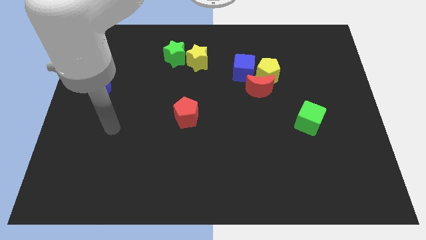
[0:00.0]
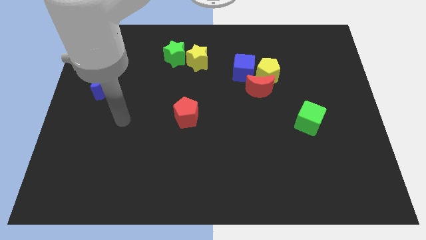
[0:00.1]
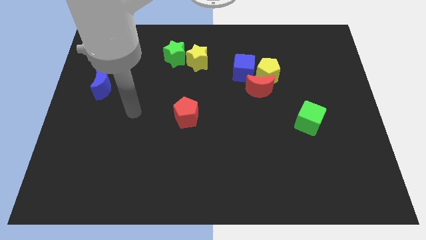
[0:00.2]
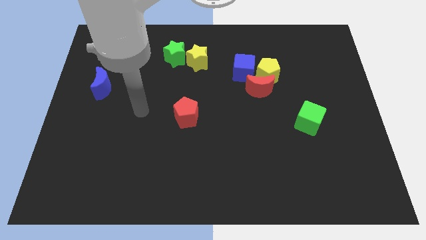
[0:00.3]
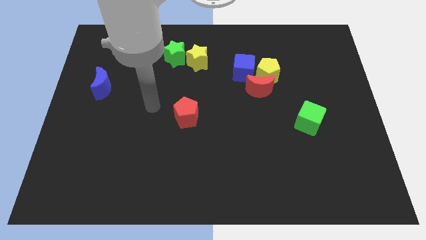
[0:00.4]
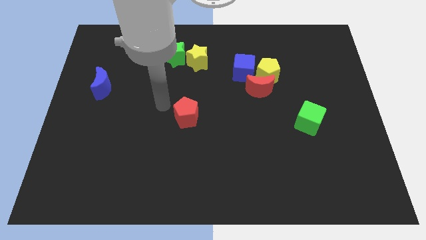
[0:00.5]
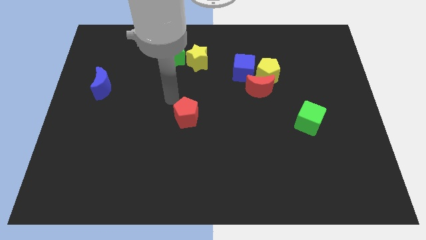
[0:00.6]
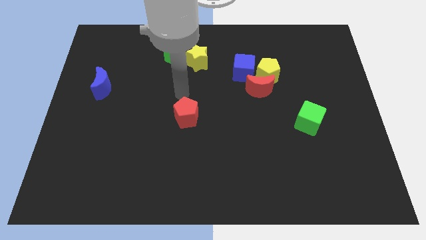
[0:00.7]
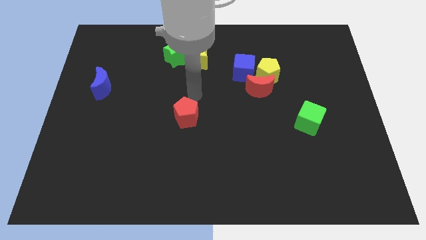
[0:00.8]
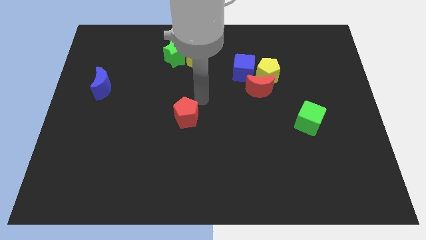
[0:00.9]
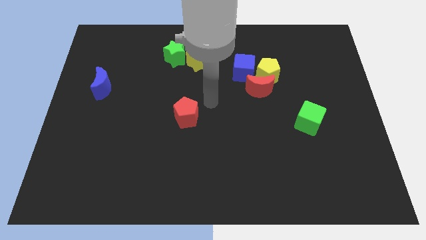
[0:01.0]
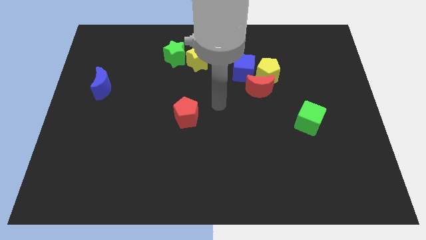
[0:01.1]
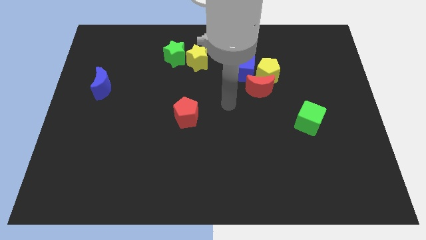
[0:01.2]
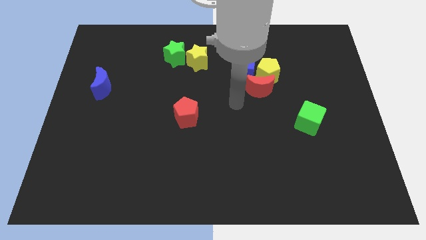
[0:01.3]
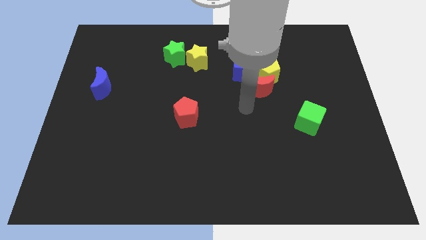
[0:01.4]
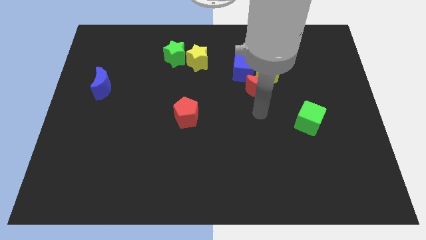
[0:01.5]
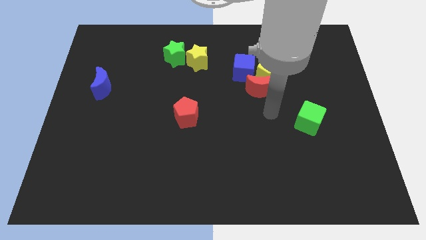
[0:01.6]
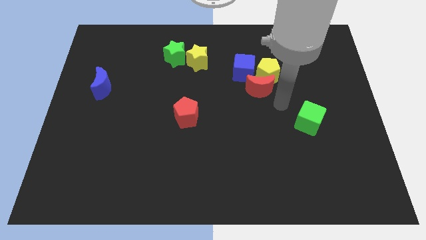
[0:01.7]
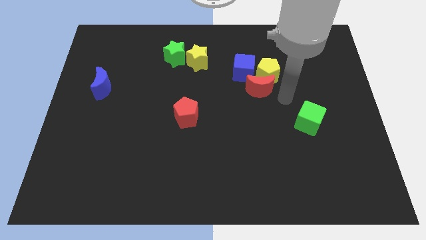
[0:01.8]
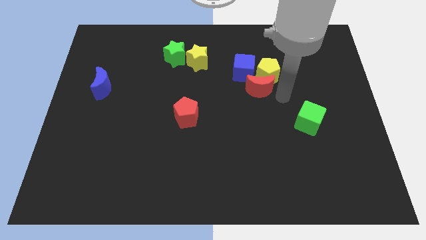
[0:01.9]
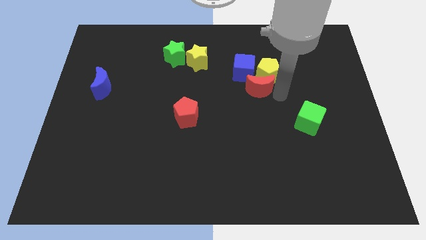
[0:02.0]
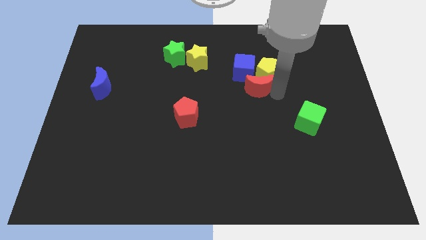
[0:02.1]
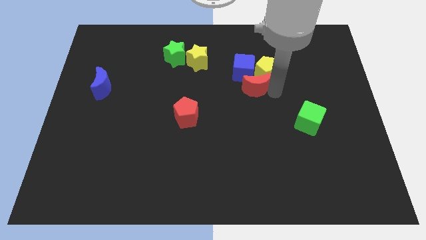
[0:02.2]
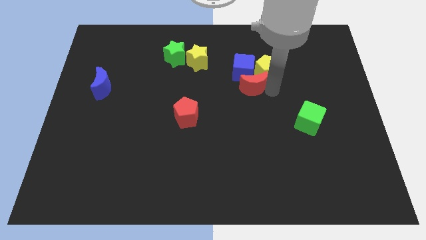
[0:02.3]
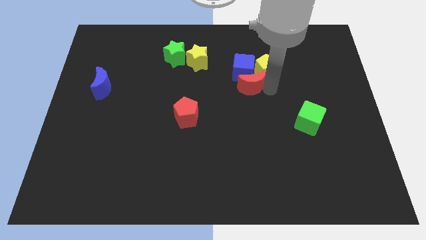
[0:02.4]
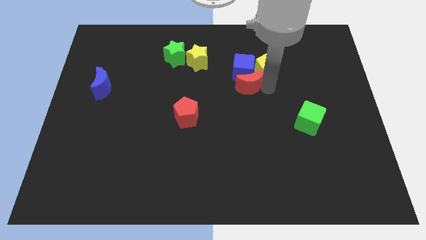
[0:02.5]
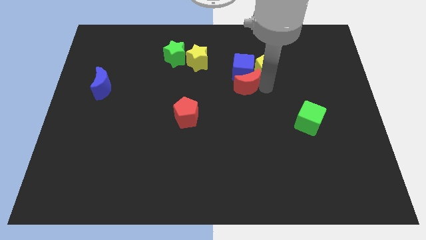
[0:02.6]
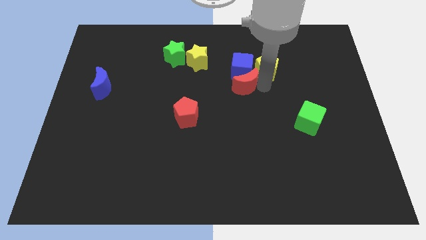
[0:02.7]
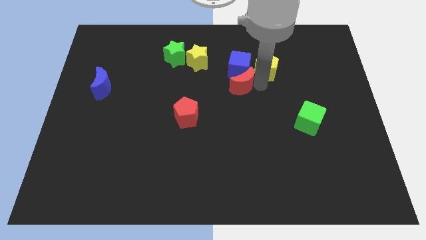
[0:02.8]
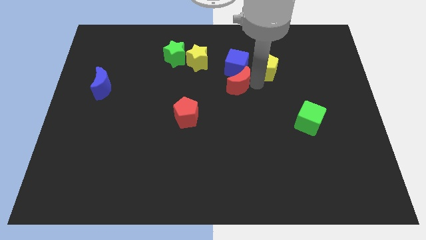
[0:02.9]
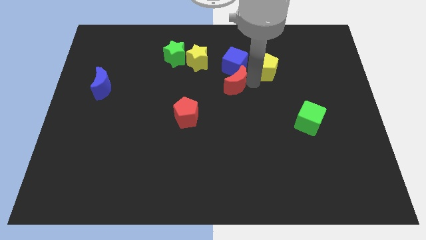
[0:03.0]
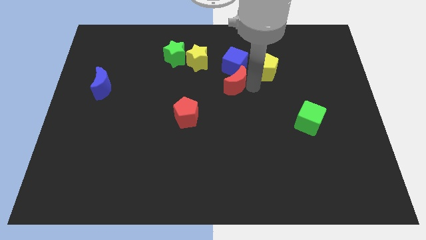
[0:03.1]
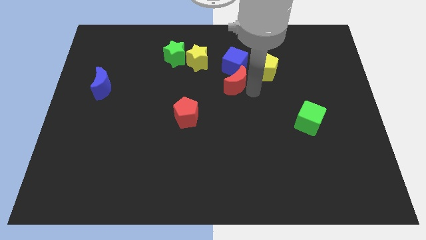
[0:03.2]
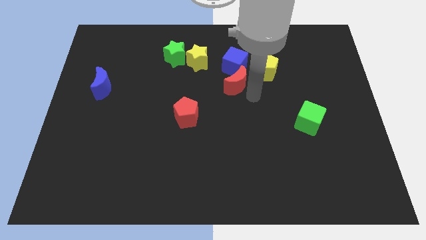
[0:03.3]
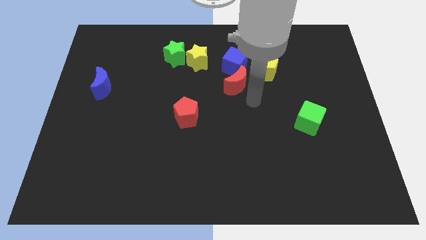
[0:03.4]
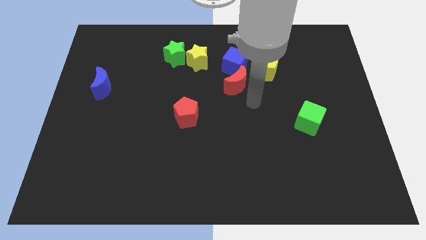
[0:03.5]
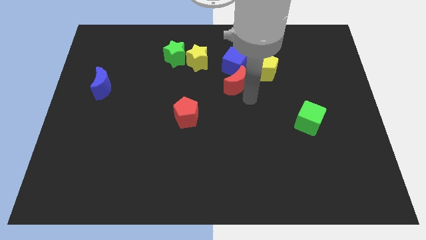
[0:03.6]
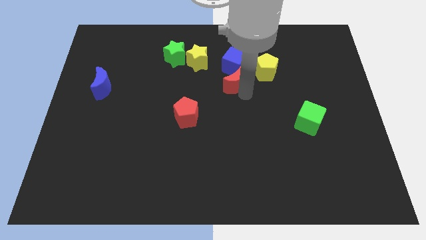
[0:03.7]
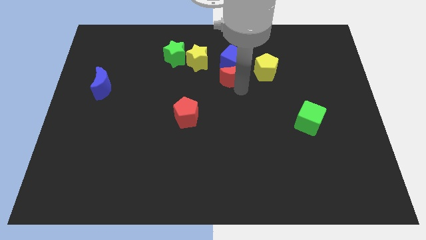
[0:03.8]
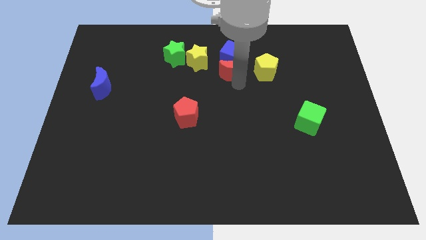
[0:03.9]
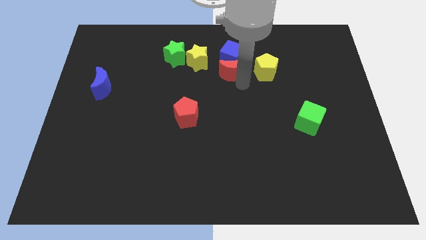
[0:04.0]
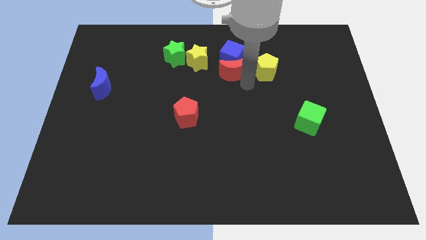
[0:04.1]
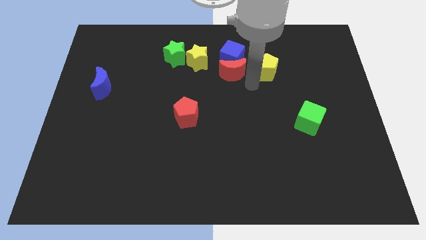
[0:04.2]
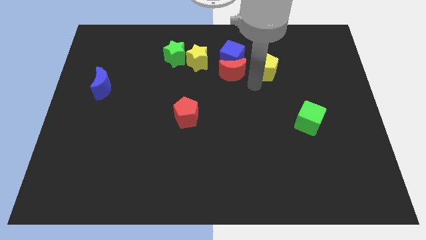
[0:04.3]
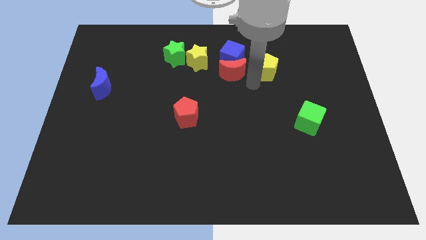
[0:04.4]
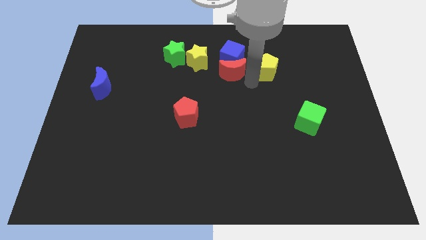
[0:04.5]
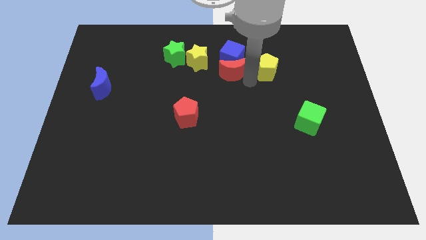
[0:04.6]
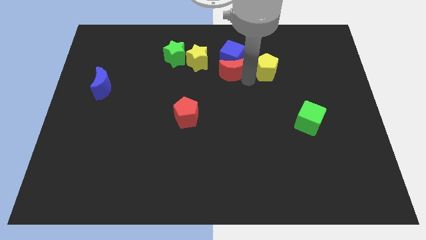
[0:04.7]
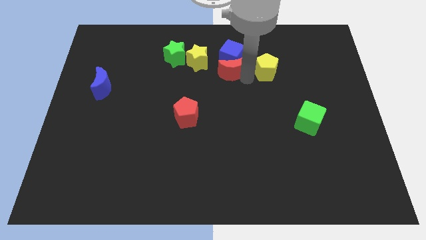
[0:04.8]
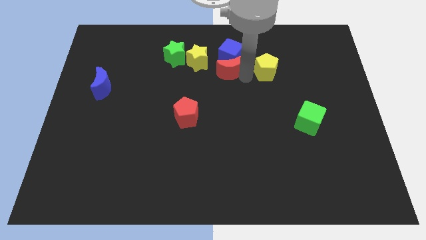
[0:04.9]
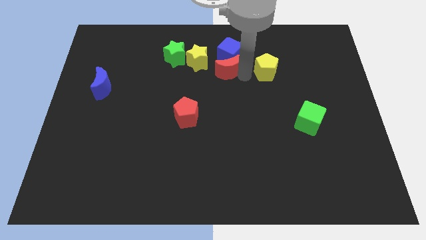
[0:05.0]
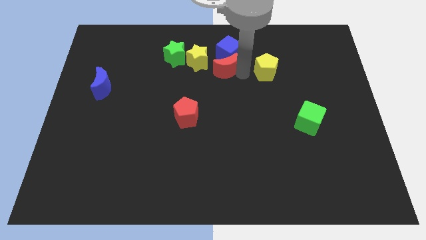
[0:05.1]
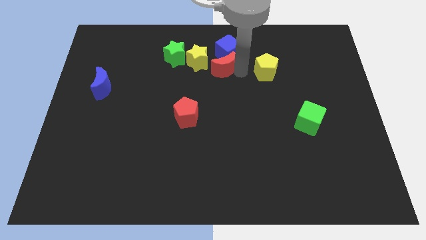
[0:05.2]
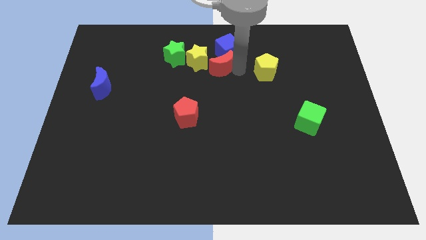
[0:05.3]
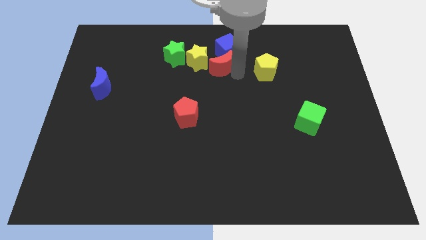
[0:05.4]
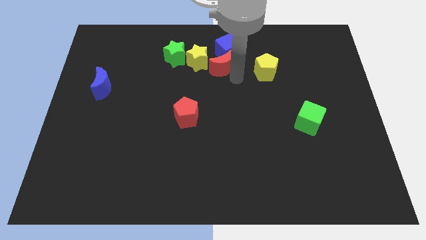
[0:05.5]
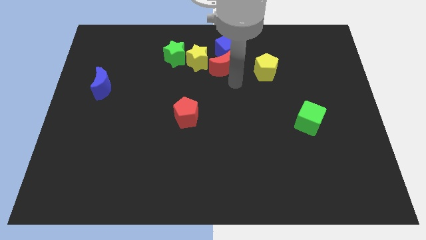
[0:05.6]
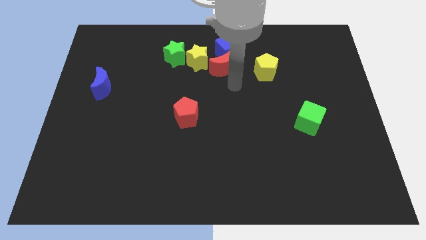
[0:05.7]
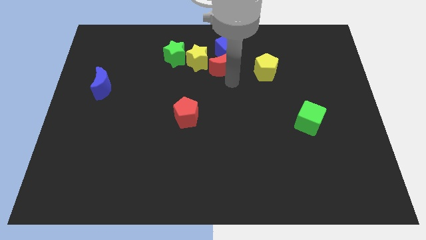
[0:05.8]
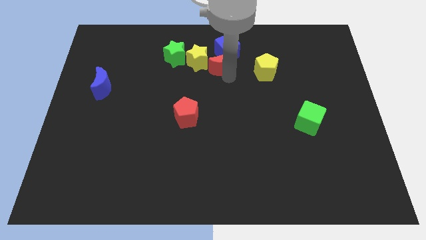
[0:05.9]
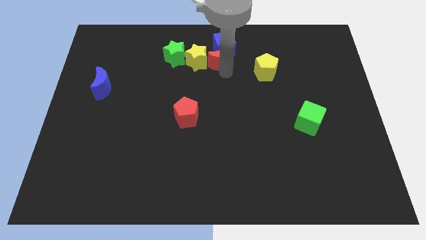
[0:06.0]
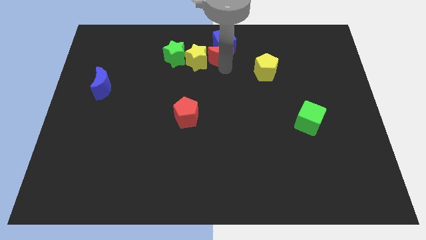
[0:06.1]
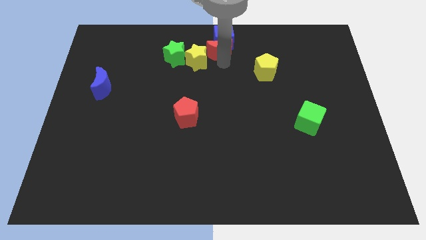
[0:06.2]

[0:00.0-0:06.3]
slide the red moon to the towards your base
